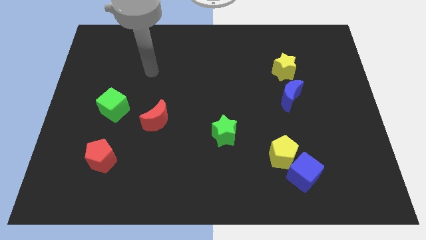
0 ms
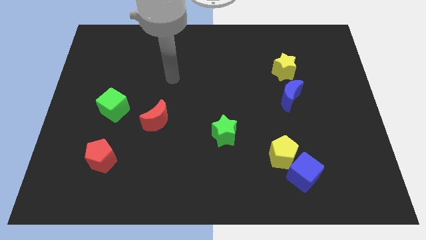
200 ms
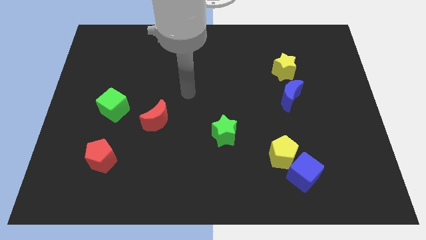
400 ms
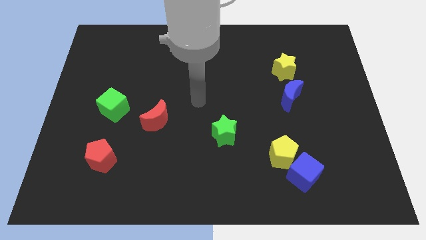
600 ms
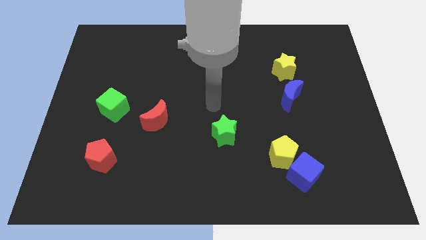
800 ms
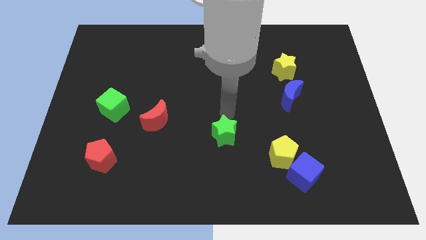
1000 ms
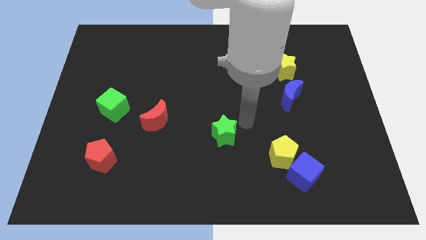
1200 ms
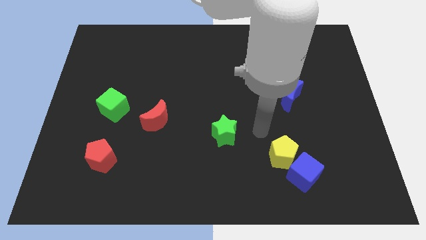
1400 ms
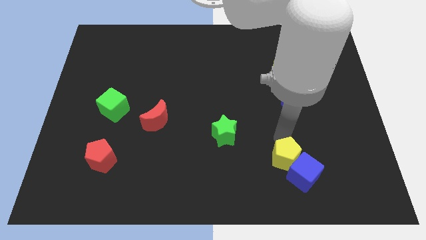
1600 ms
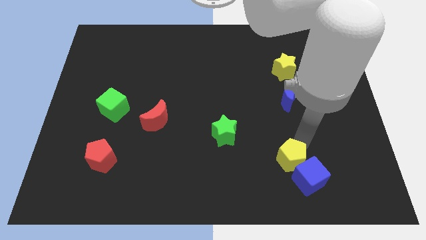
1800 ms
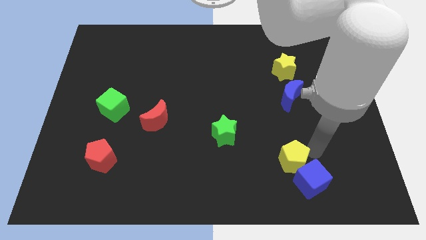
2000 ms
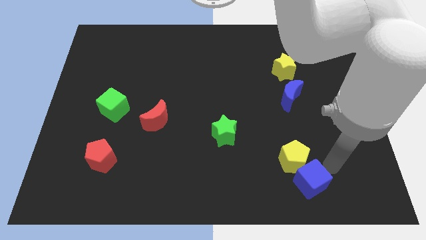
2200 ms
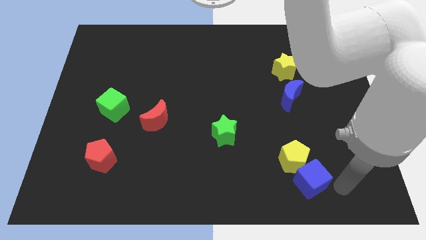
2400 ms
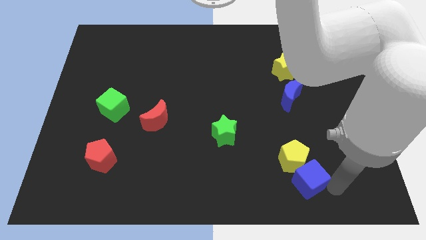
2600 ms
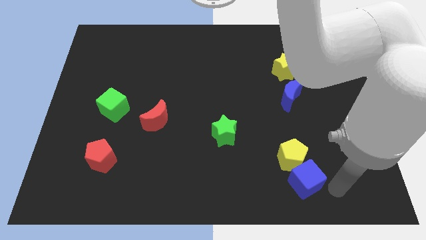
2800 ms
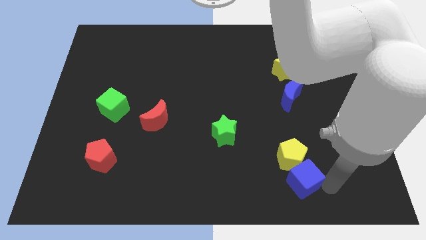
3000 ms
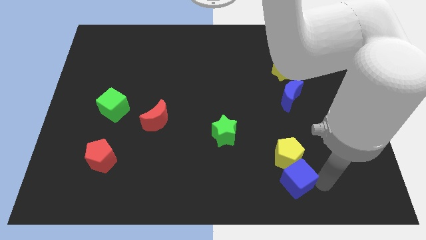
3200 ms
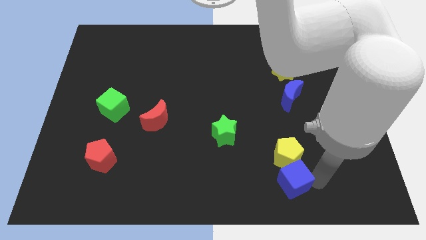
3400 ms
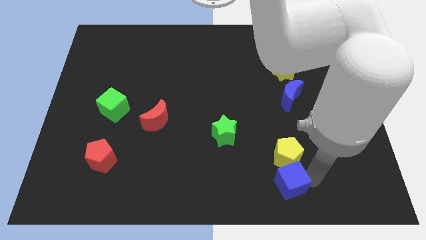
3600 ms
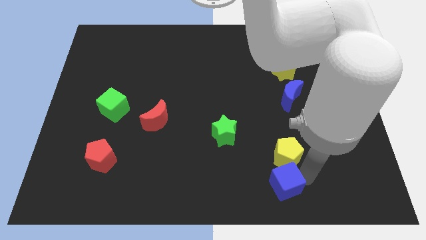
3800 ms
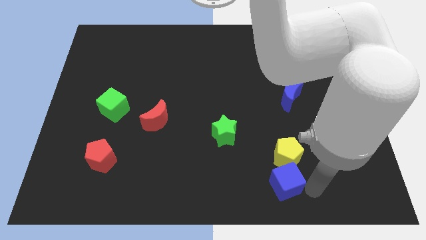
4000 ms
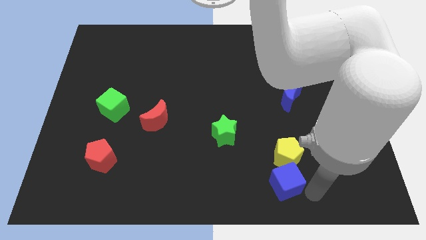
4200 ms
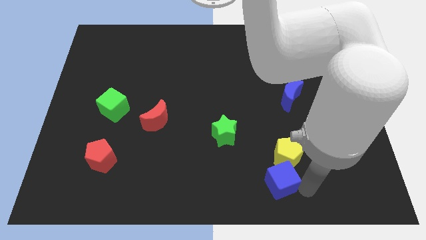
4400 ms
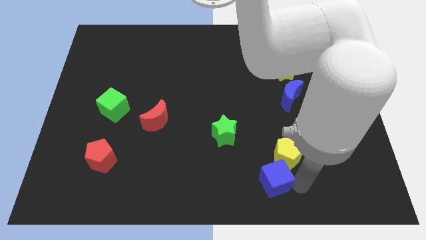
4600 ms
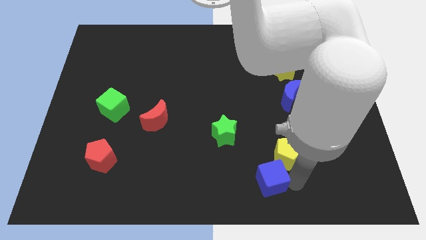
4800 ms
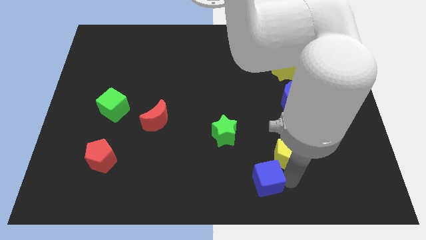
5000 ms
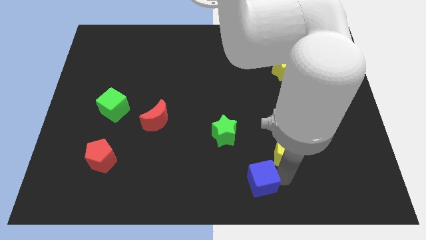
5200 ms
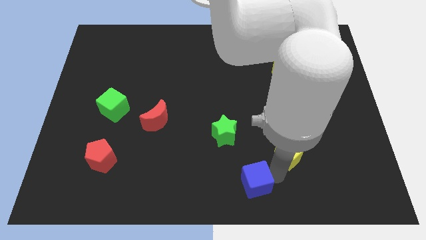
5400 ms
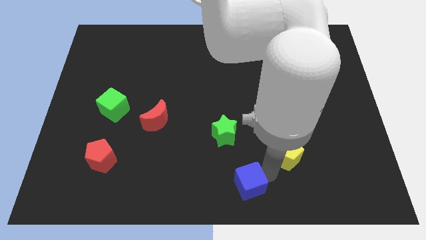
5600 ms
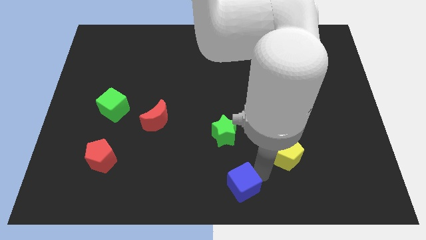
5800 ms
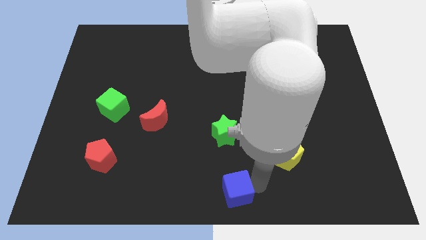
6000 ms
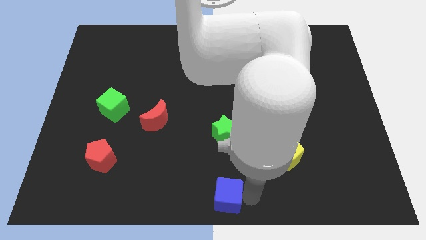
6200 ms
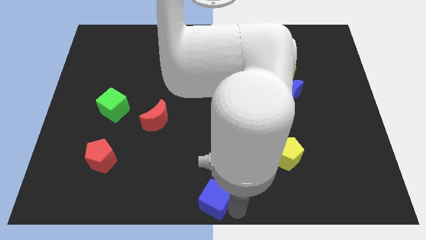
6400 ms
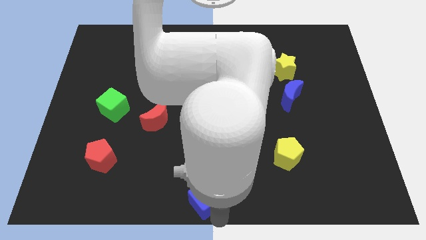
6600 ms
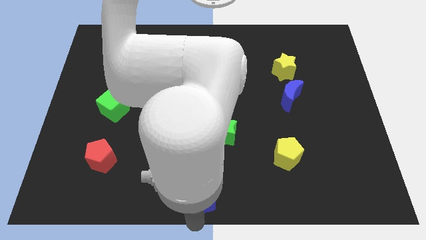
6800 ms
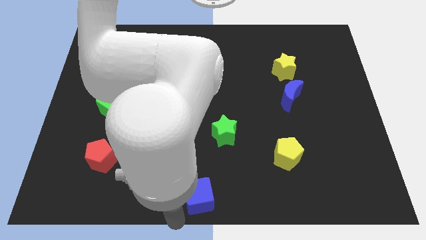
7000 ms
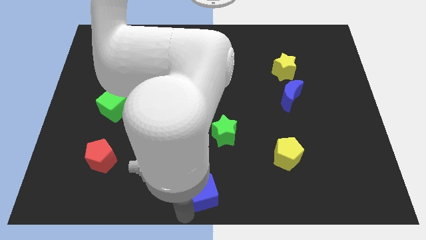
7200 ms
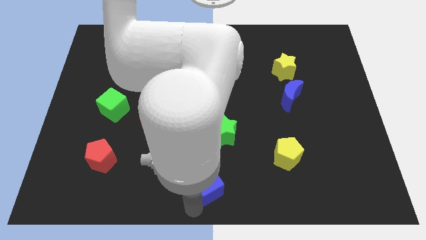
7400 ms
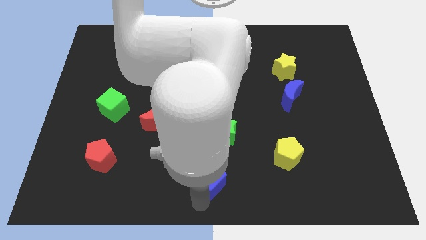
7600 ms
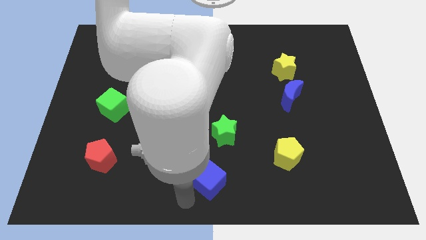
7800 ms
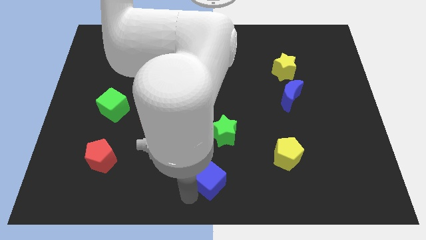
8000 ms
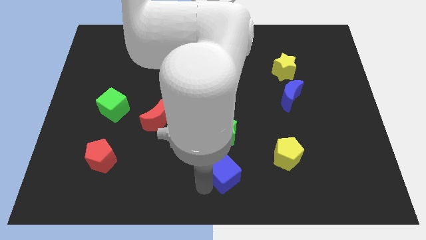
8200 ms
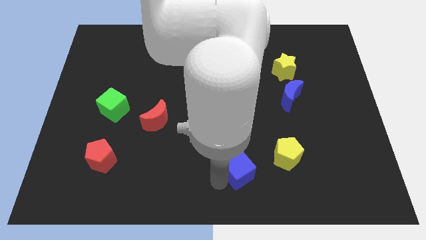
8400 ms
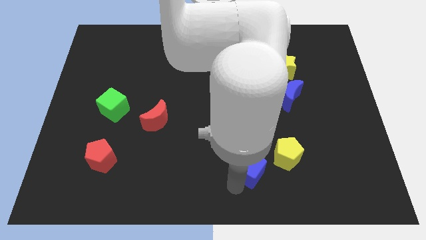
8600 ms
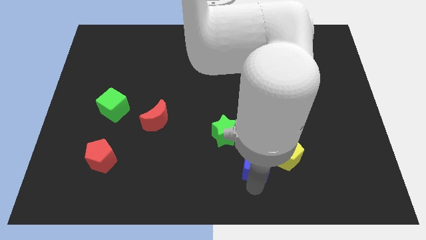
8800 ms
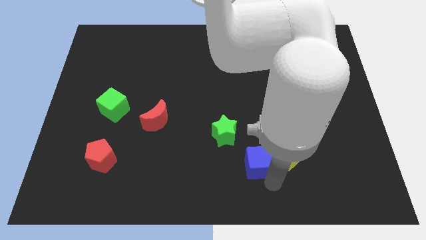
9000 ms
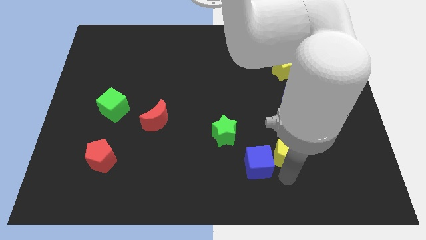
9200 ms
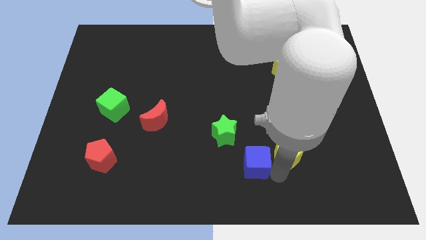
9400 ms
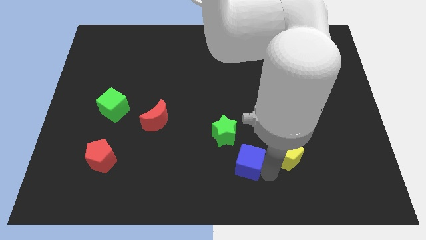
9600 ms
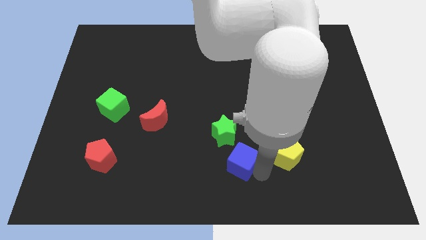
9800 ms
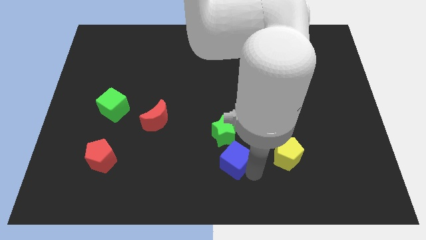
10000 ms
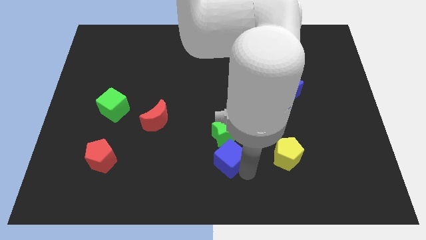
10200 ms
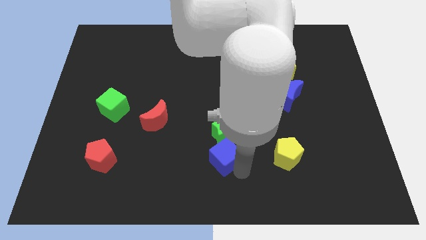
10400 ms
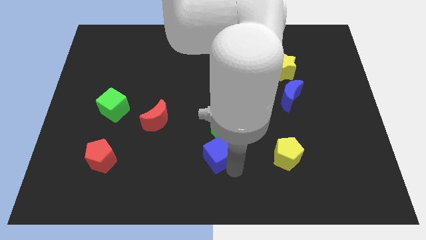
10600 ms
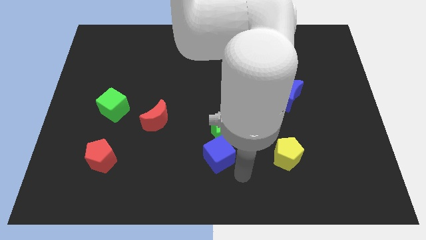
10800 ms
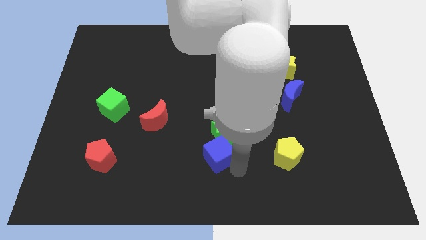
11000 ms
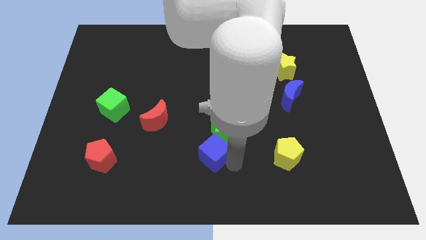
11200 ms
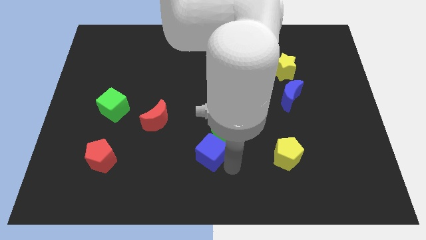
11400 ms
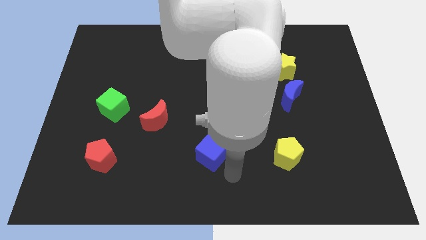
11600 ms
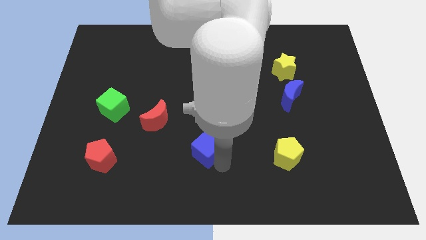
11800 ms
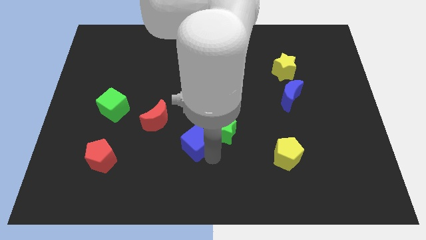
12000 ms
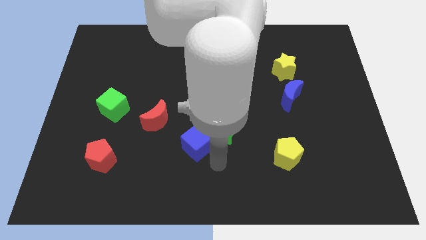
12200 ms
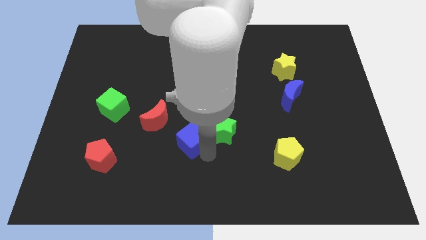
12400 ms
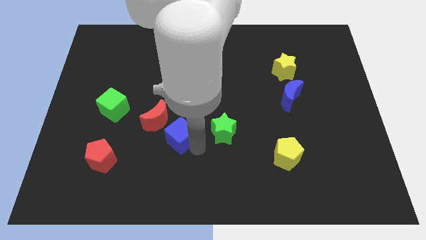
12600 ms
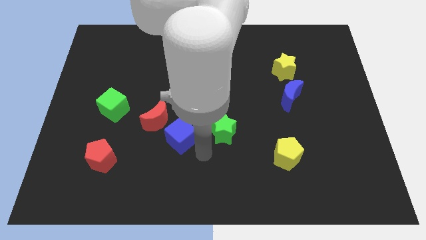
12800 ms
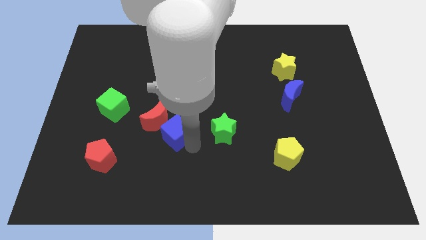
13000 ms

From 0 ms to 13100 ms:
move the blue cube towards the red moon

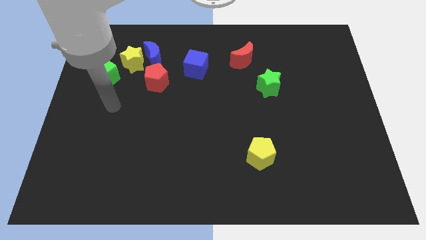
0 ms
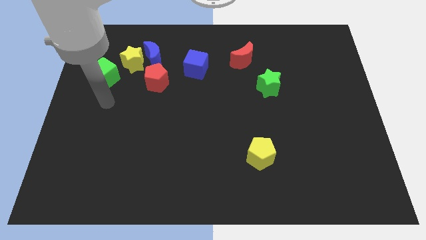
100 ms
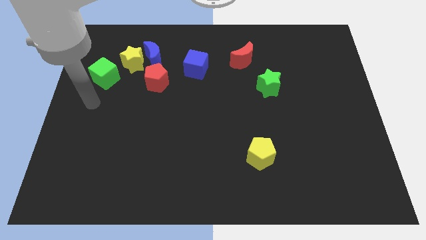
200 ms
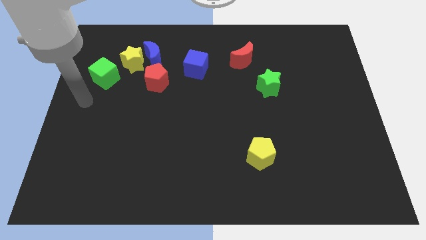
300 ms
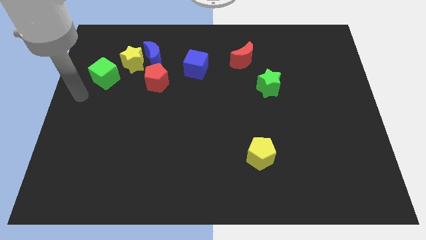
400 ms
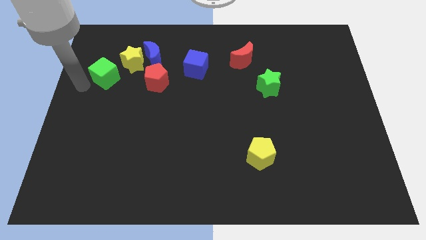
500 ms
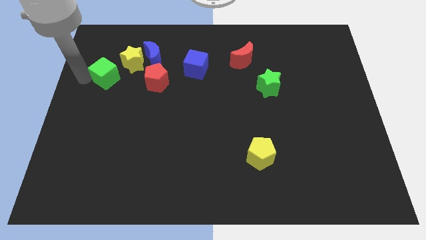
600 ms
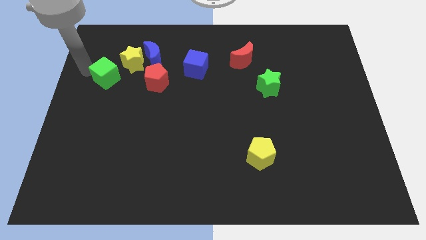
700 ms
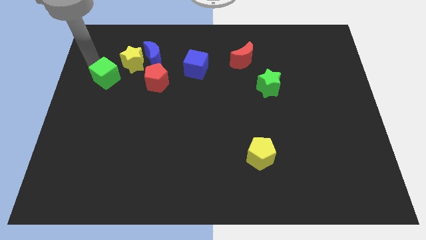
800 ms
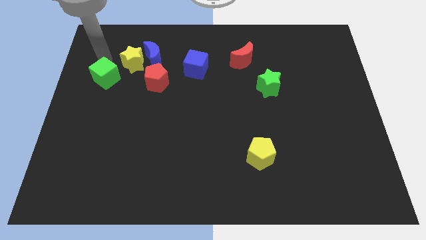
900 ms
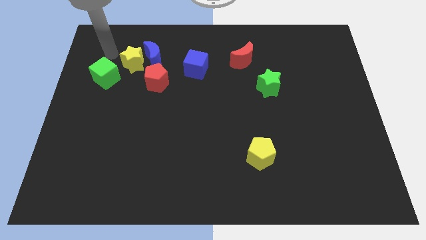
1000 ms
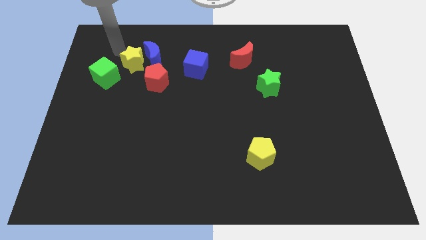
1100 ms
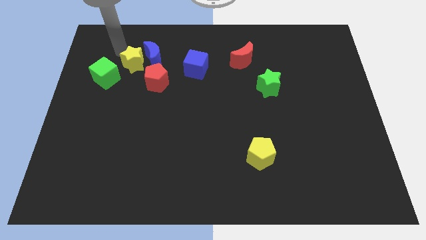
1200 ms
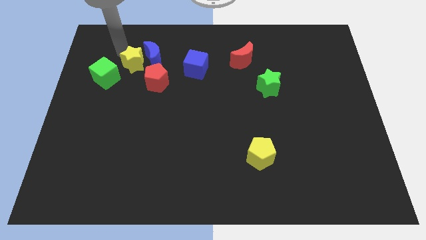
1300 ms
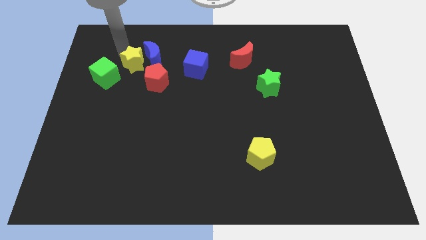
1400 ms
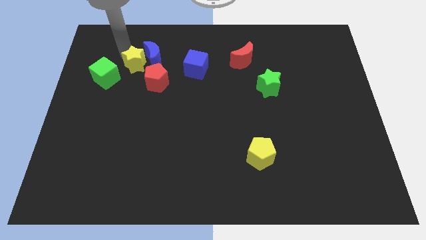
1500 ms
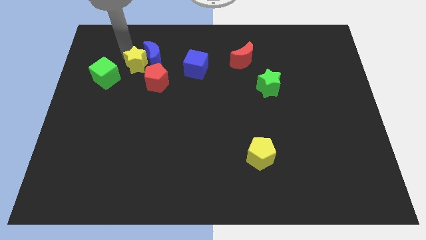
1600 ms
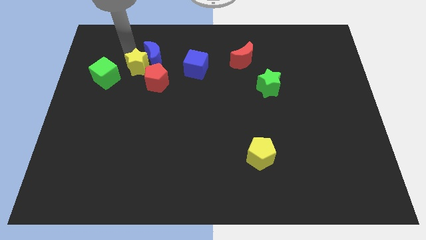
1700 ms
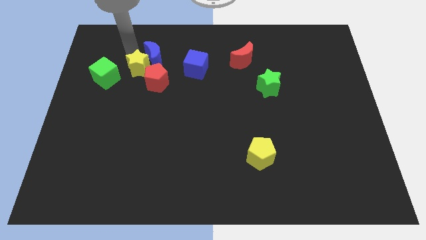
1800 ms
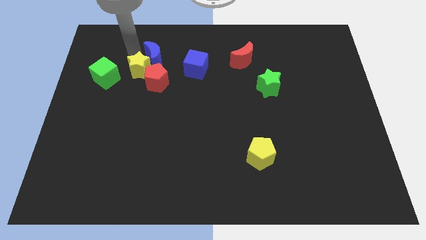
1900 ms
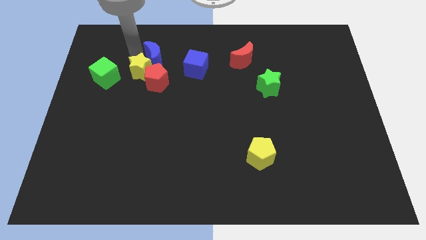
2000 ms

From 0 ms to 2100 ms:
slide the yellow star towards the red pentagon
